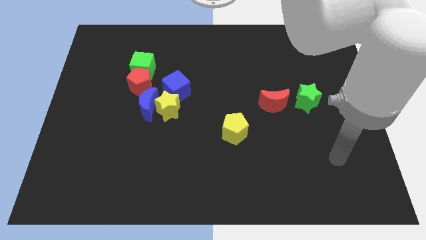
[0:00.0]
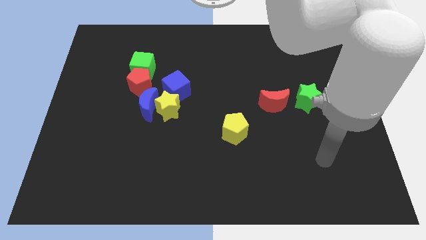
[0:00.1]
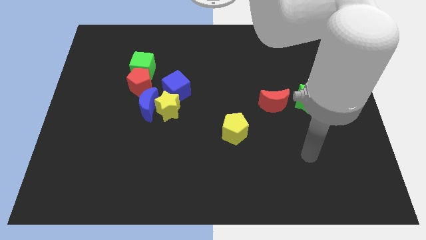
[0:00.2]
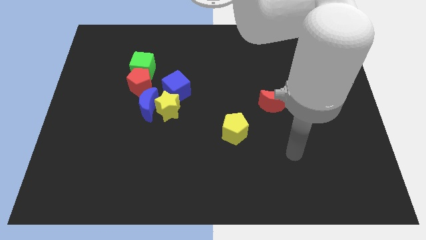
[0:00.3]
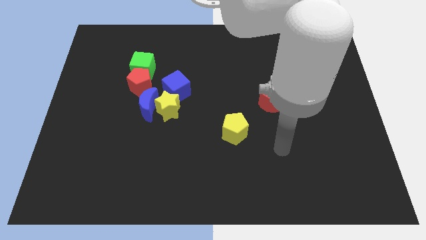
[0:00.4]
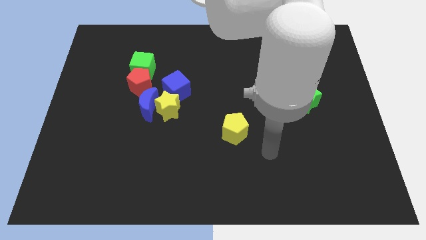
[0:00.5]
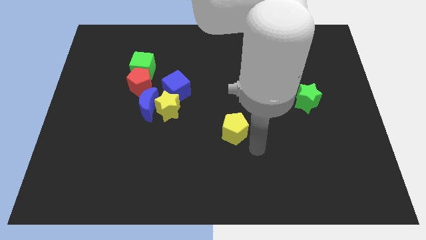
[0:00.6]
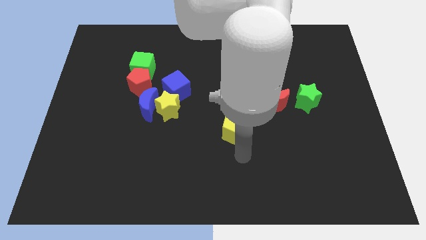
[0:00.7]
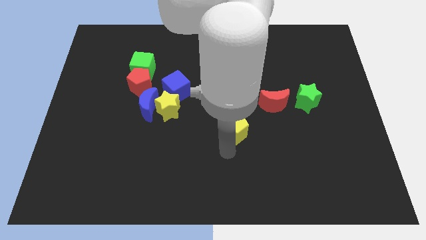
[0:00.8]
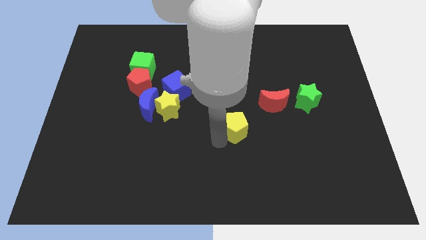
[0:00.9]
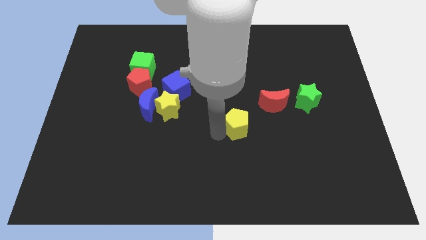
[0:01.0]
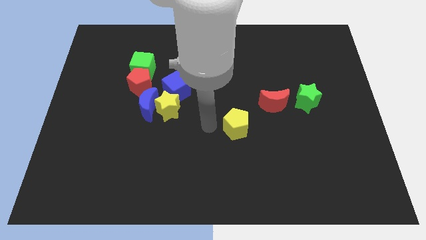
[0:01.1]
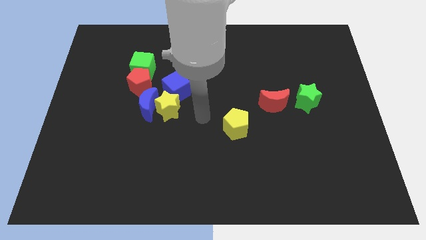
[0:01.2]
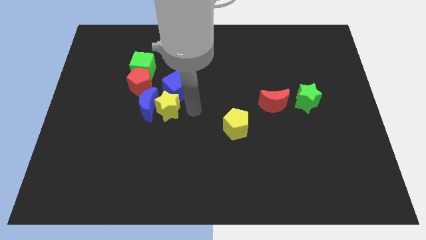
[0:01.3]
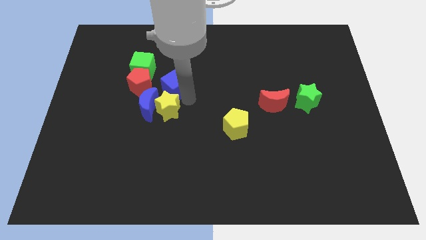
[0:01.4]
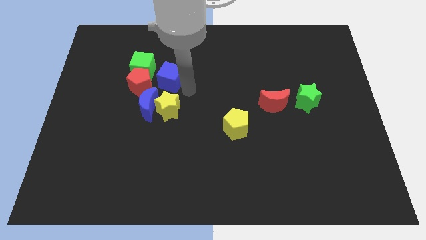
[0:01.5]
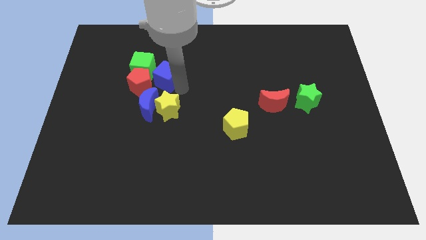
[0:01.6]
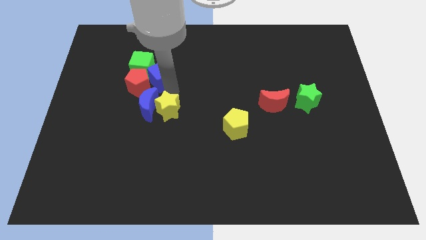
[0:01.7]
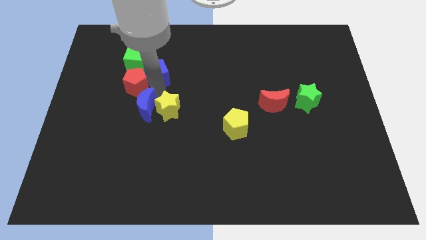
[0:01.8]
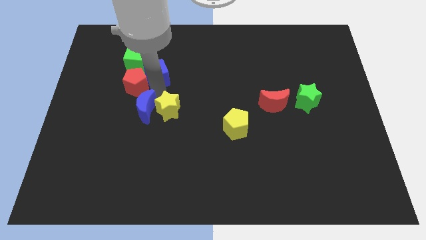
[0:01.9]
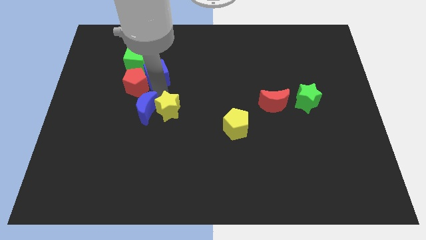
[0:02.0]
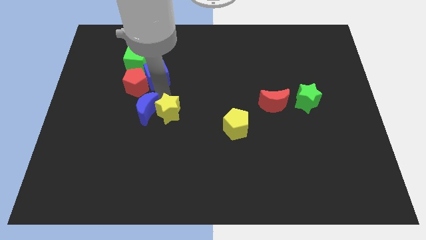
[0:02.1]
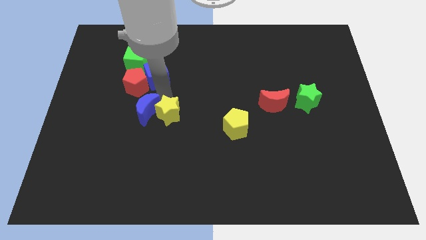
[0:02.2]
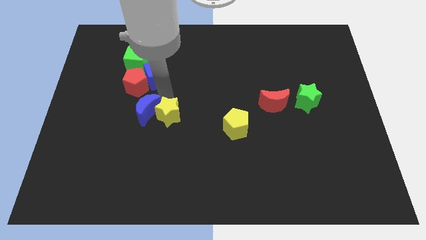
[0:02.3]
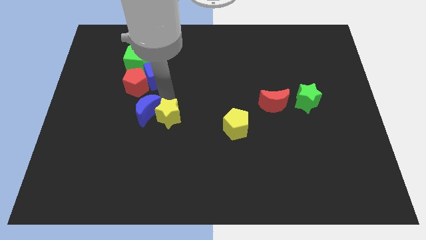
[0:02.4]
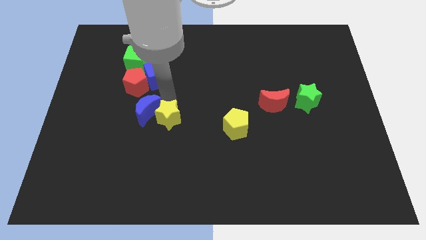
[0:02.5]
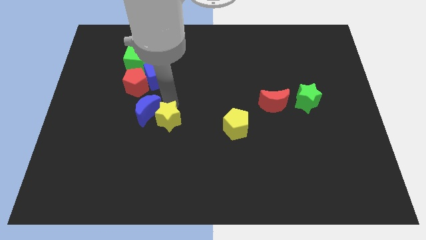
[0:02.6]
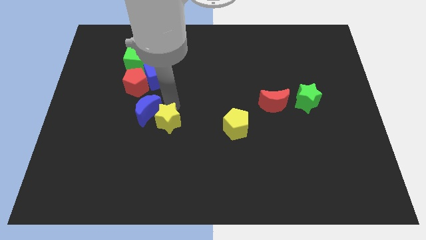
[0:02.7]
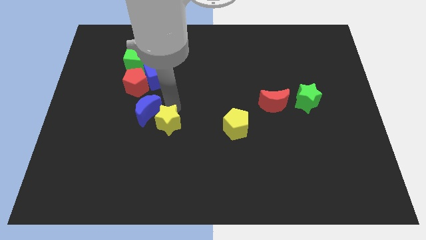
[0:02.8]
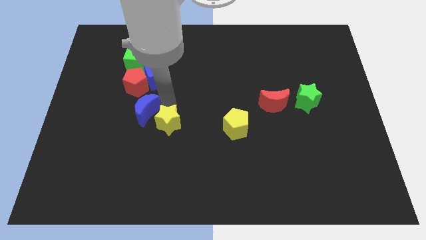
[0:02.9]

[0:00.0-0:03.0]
move the yellow star away from the blue moon and blue cube

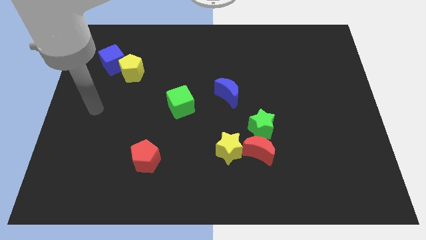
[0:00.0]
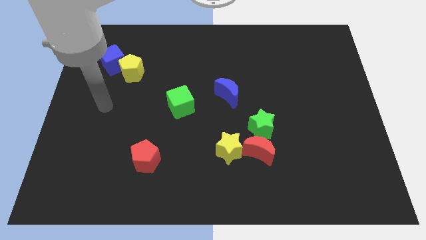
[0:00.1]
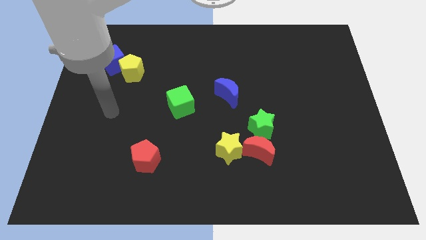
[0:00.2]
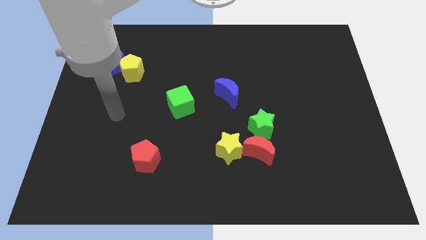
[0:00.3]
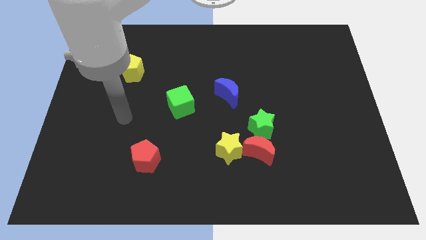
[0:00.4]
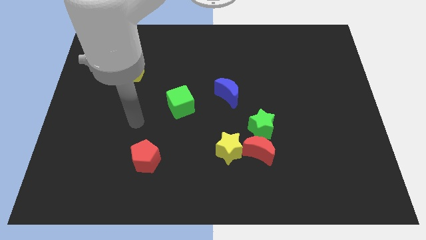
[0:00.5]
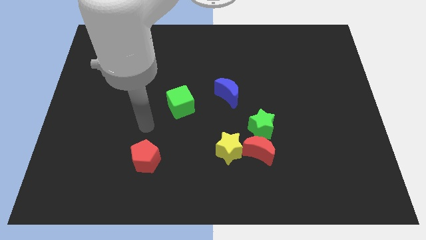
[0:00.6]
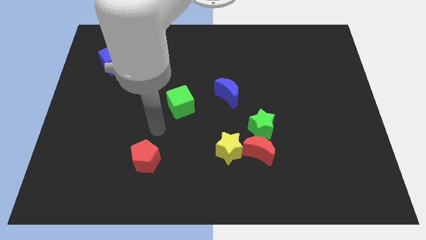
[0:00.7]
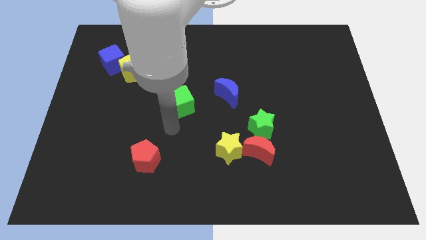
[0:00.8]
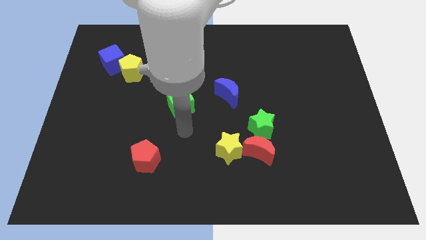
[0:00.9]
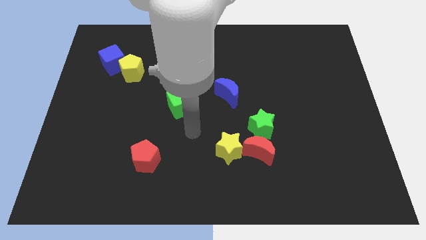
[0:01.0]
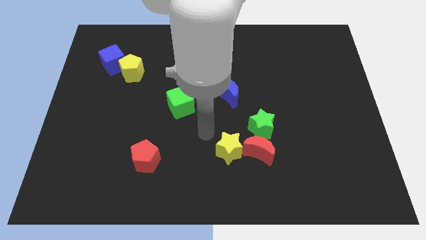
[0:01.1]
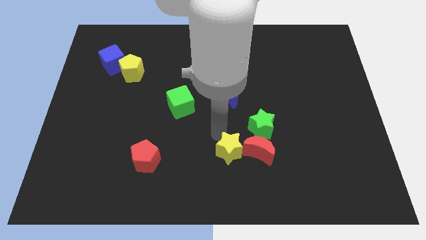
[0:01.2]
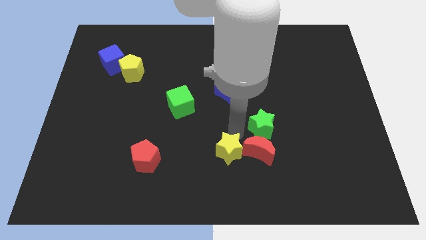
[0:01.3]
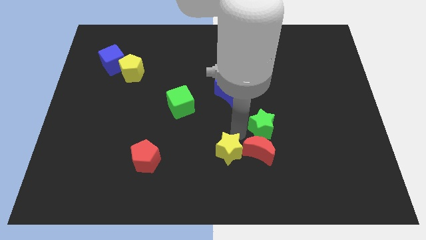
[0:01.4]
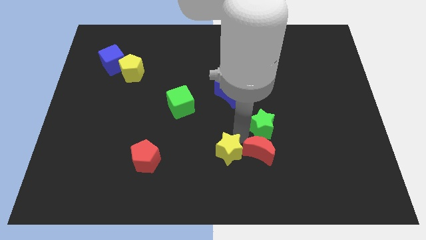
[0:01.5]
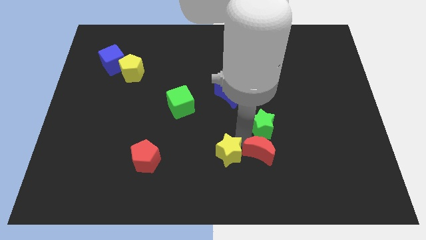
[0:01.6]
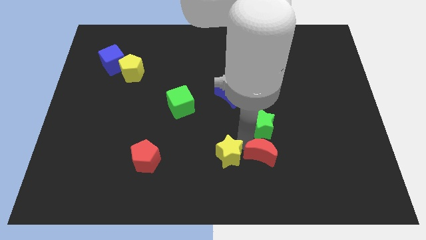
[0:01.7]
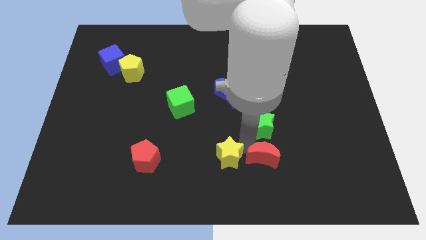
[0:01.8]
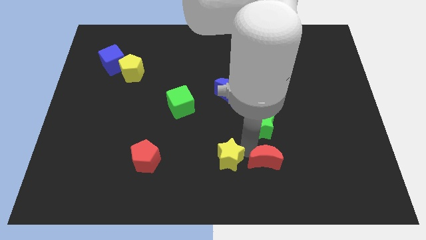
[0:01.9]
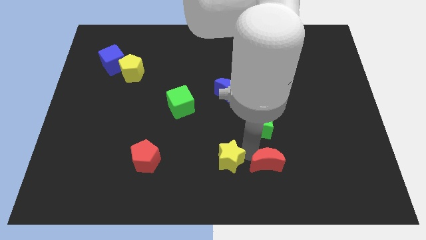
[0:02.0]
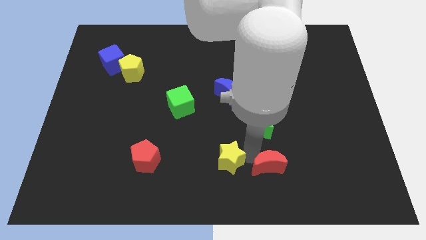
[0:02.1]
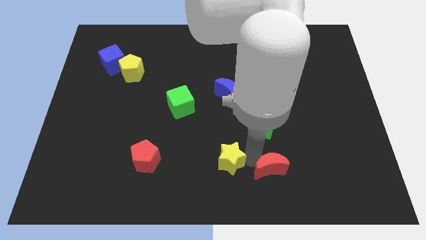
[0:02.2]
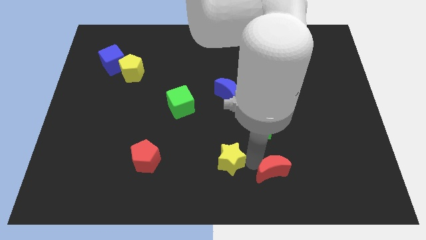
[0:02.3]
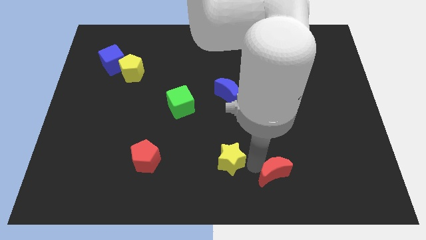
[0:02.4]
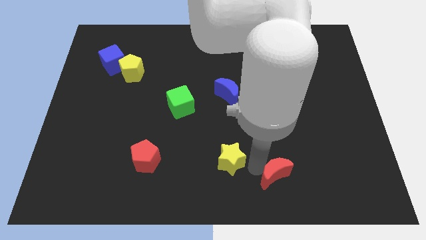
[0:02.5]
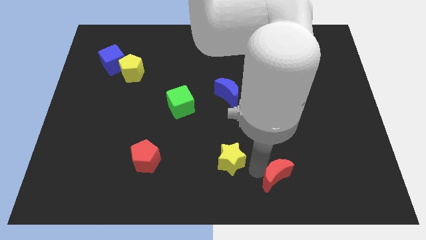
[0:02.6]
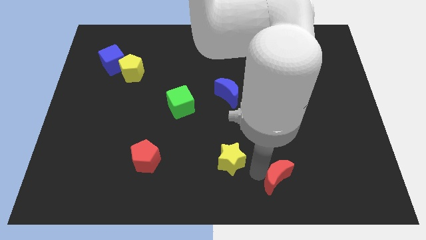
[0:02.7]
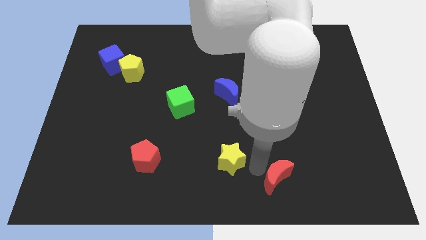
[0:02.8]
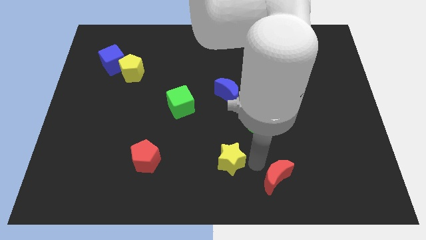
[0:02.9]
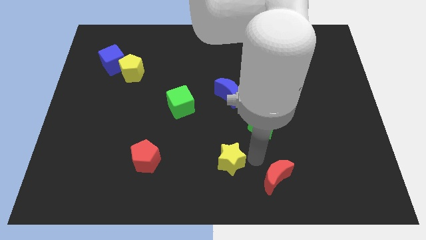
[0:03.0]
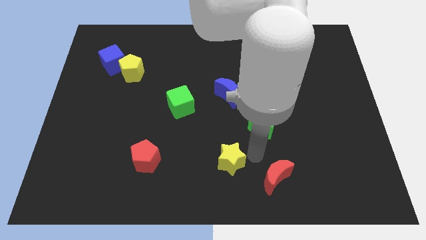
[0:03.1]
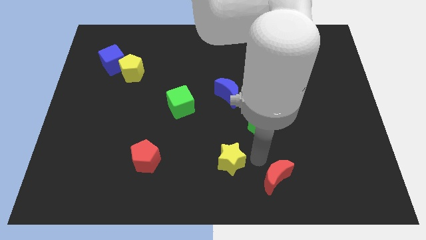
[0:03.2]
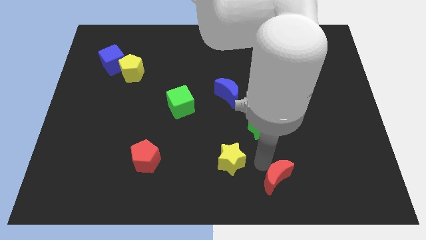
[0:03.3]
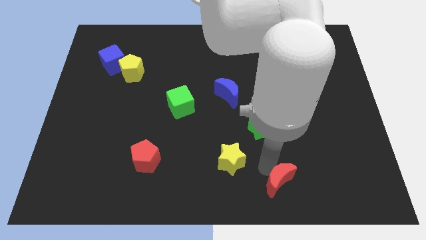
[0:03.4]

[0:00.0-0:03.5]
move the red moon away from the green star and yellow star

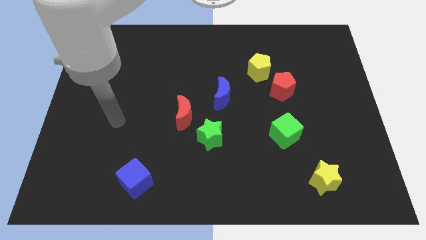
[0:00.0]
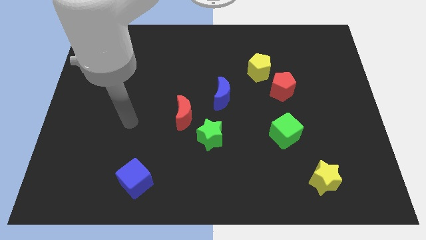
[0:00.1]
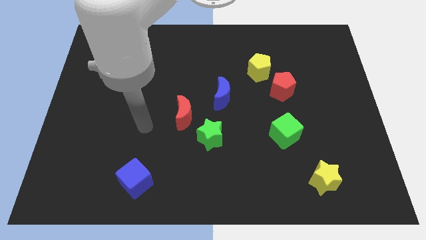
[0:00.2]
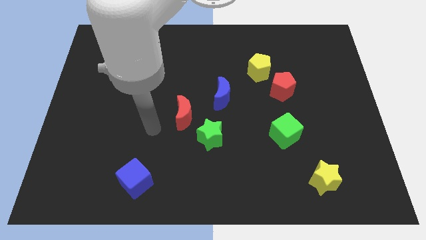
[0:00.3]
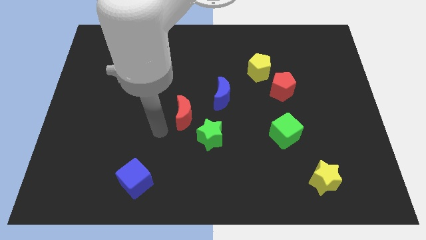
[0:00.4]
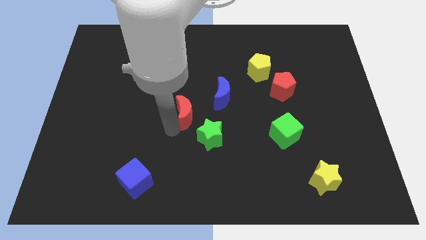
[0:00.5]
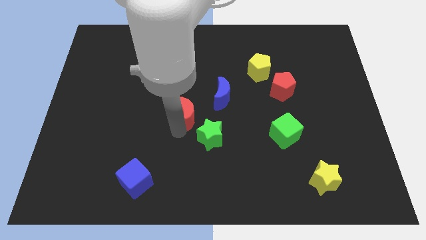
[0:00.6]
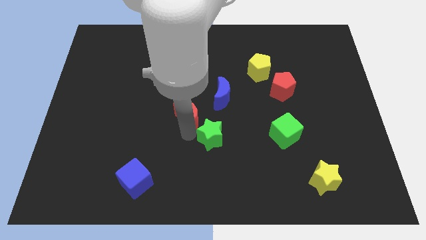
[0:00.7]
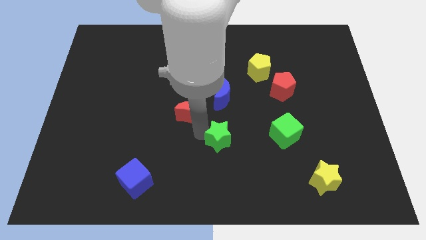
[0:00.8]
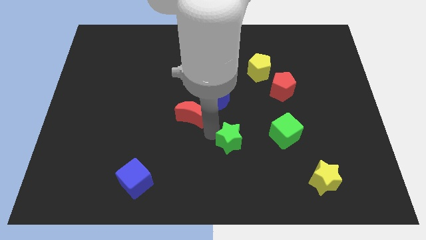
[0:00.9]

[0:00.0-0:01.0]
move the red moon away from the green star

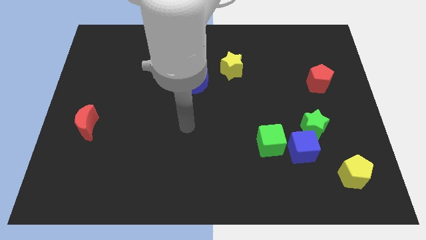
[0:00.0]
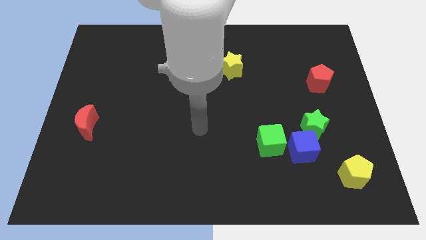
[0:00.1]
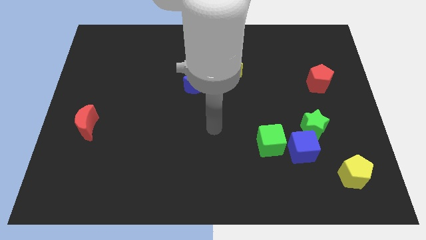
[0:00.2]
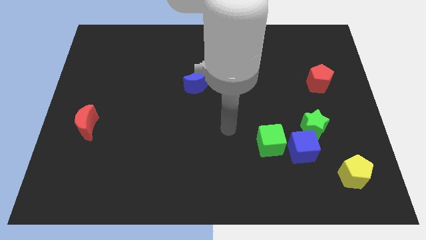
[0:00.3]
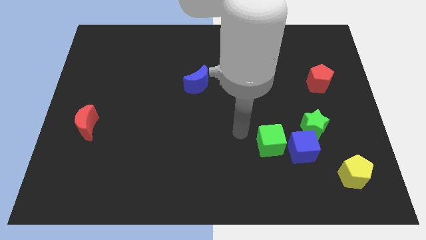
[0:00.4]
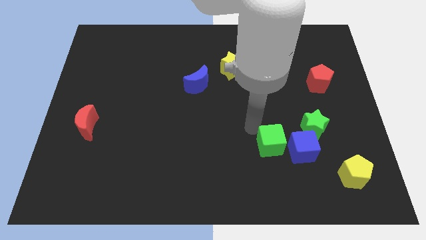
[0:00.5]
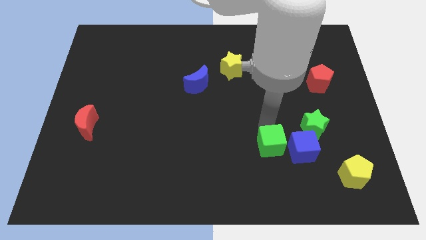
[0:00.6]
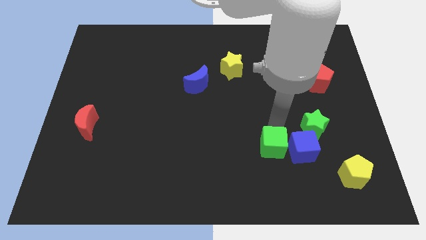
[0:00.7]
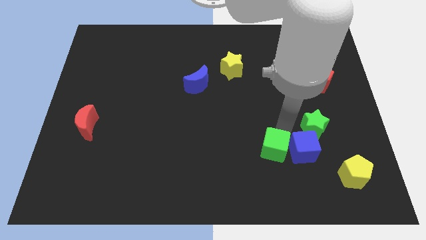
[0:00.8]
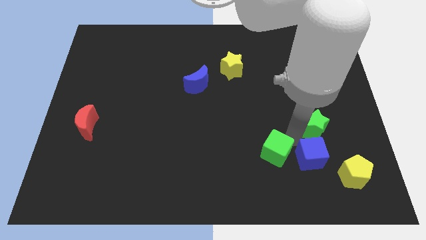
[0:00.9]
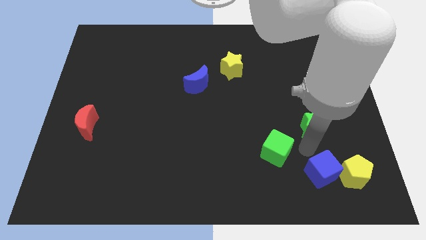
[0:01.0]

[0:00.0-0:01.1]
pull the green star apart from the blue cube

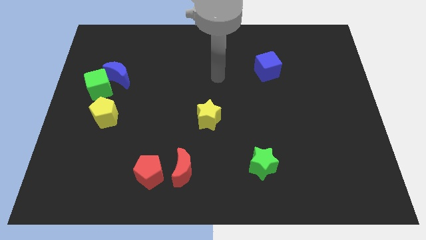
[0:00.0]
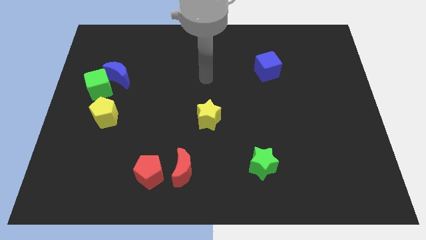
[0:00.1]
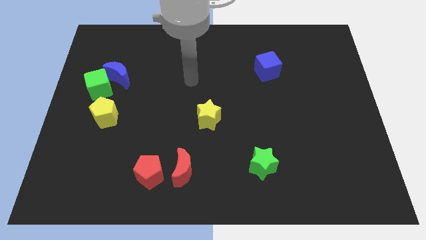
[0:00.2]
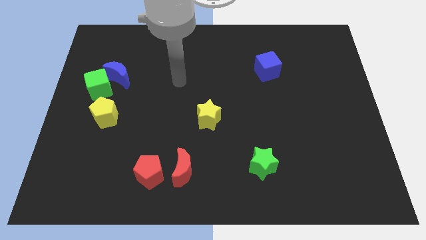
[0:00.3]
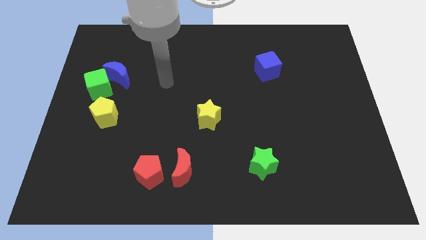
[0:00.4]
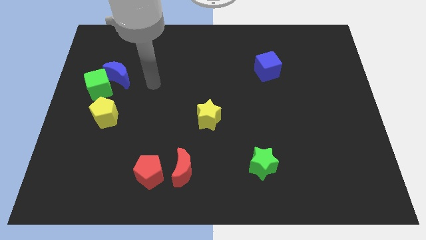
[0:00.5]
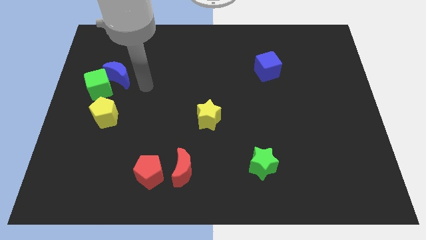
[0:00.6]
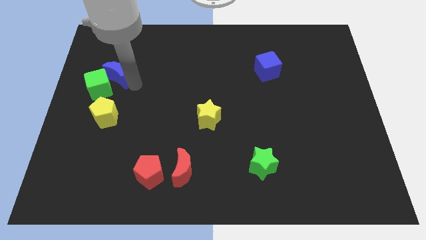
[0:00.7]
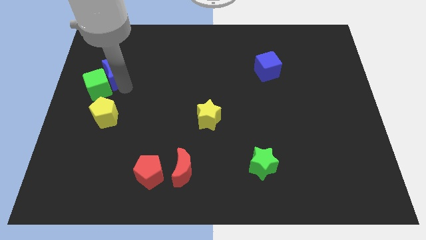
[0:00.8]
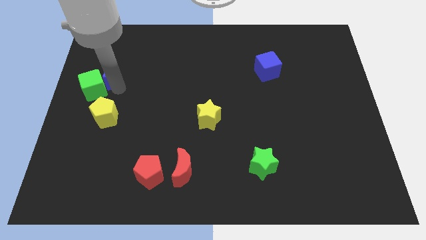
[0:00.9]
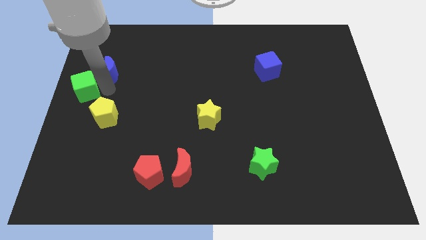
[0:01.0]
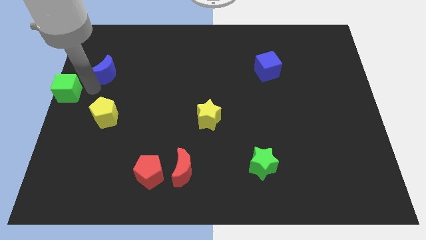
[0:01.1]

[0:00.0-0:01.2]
separate the blue moon from the green cube
